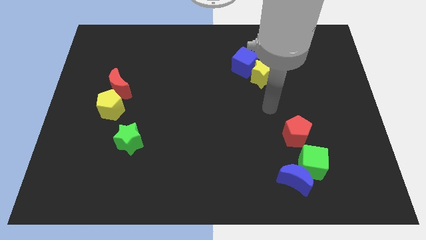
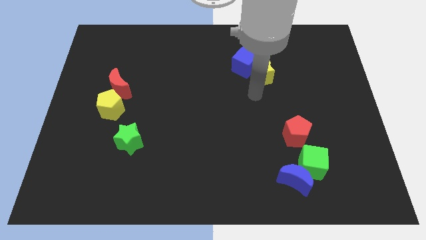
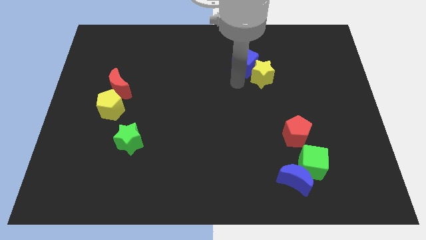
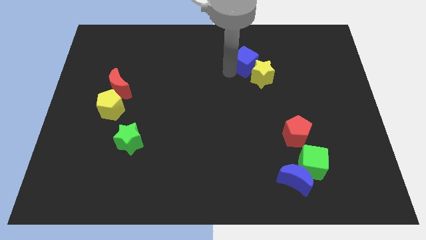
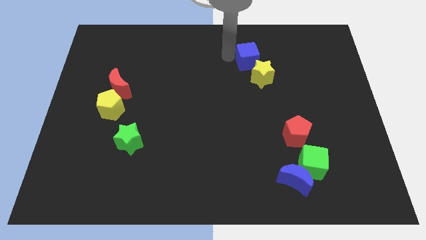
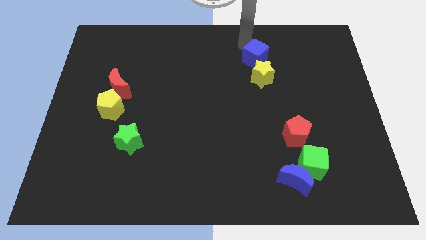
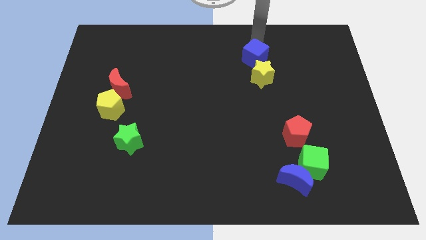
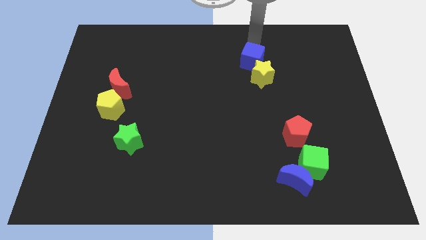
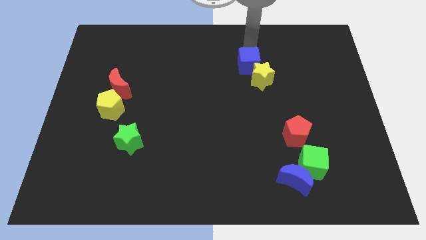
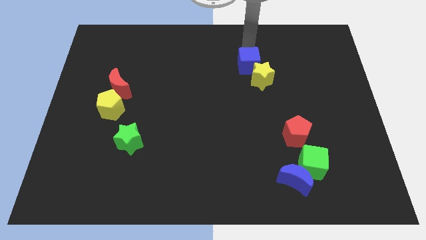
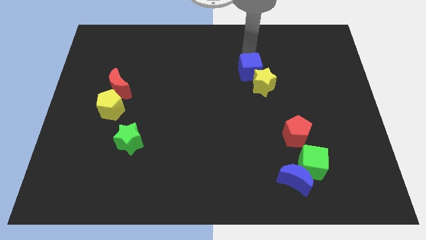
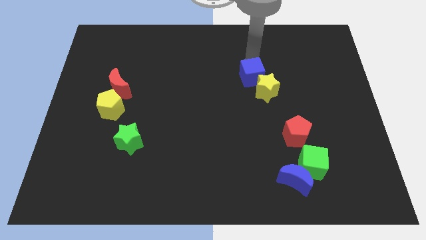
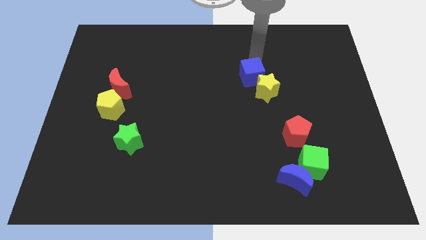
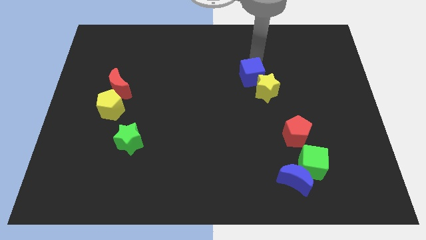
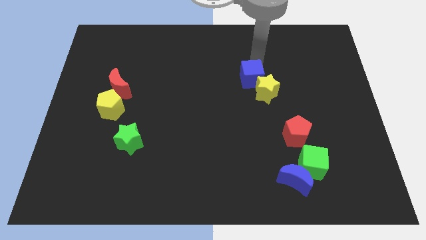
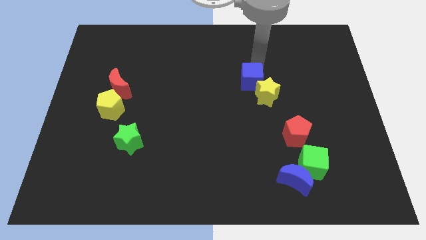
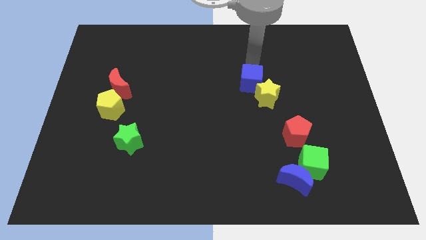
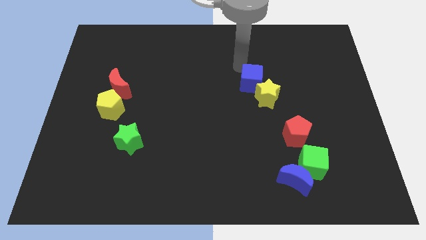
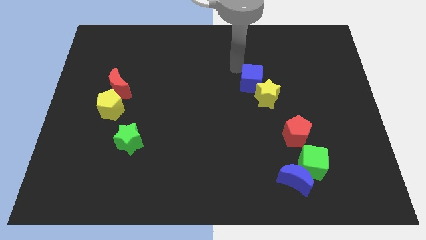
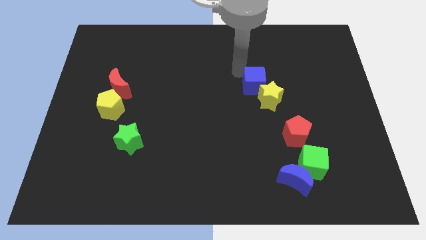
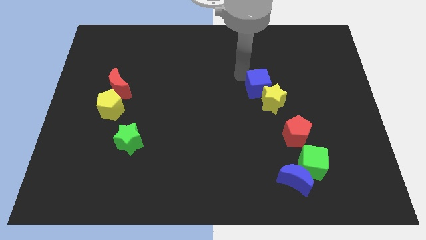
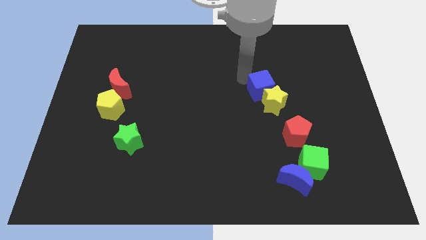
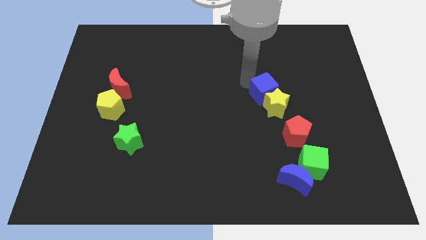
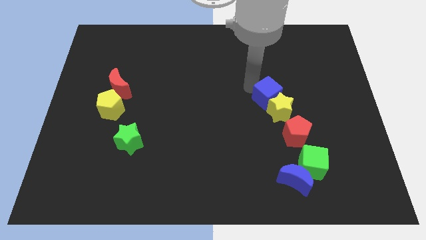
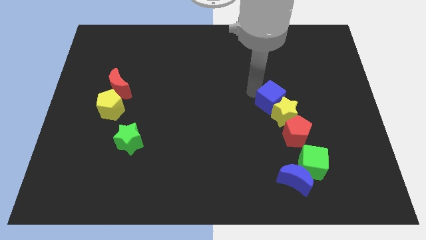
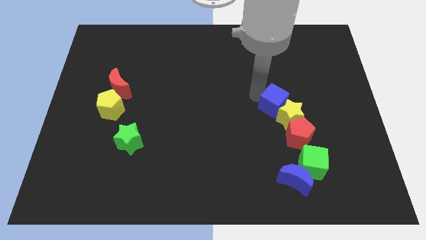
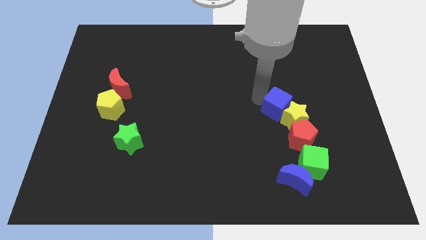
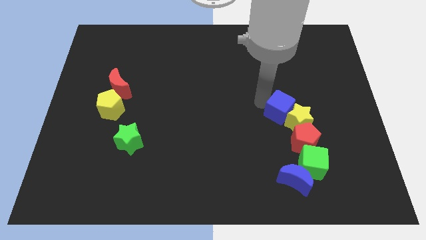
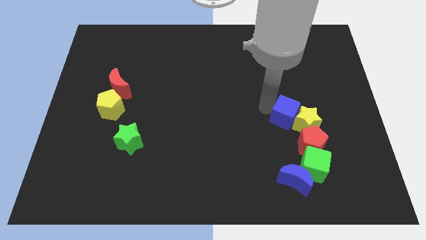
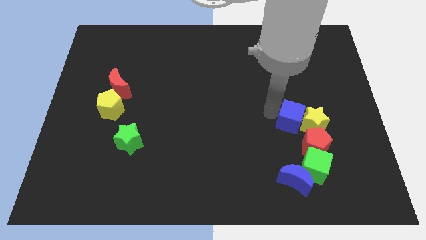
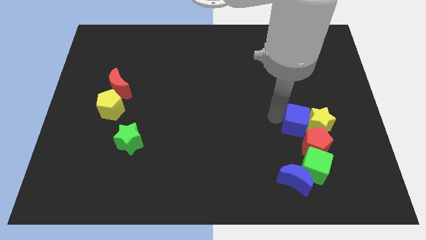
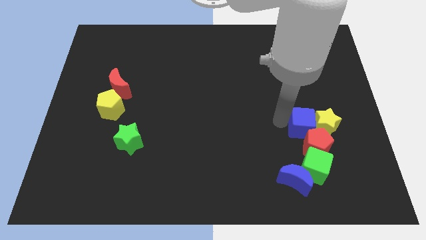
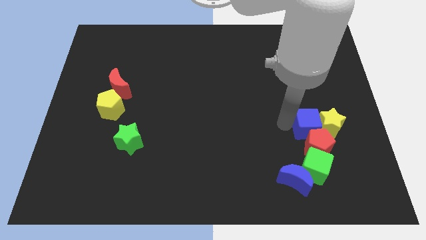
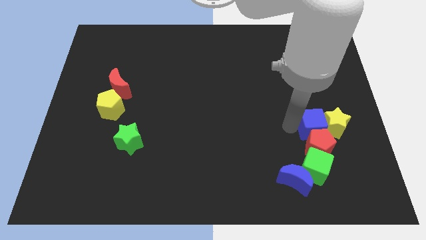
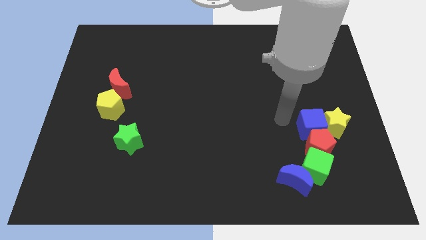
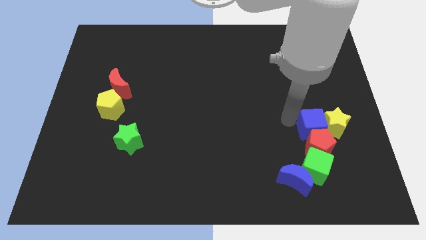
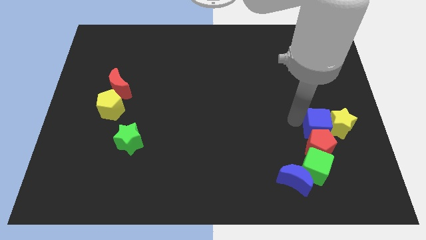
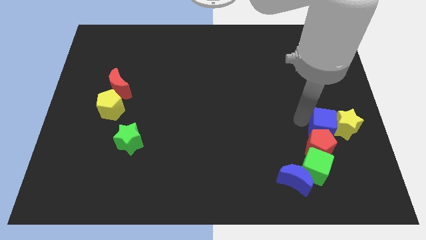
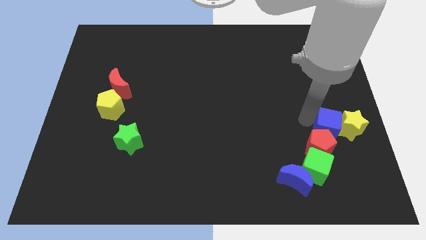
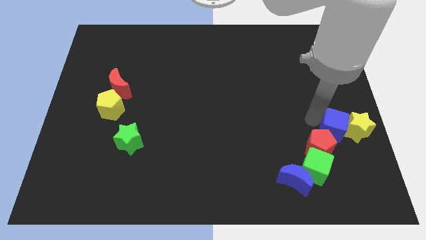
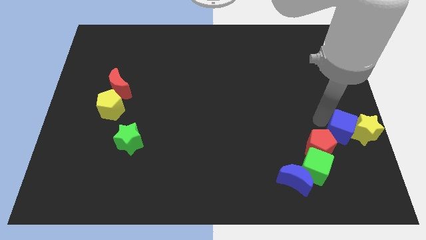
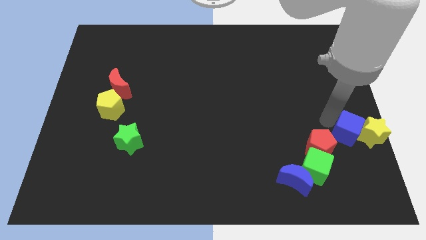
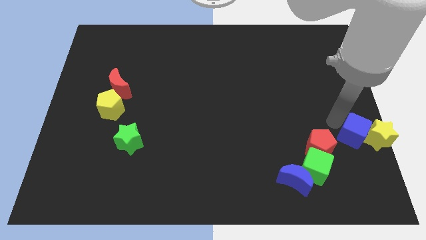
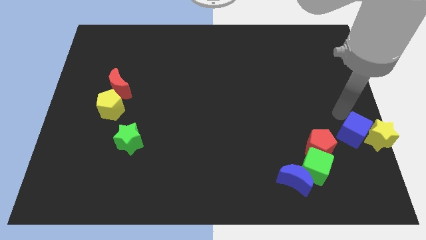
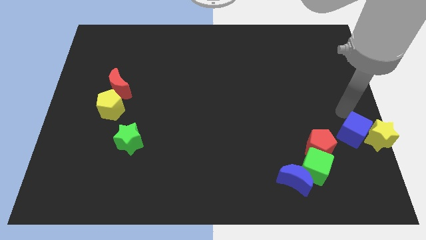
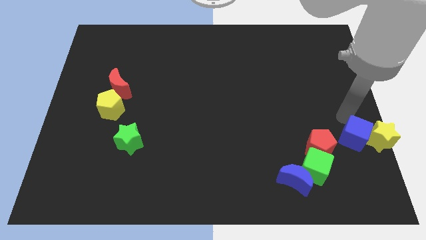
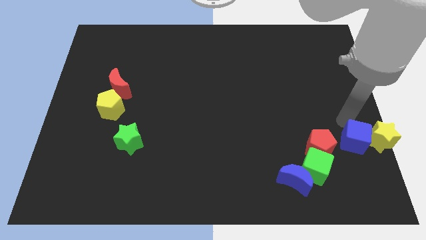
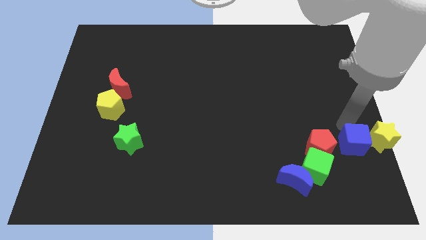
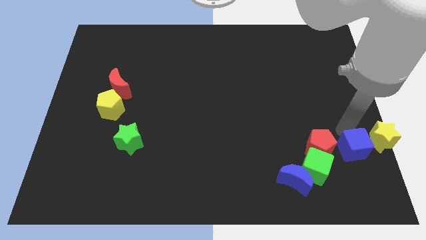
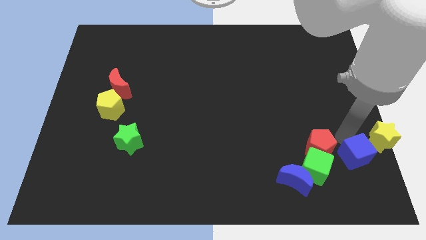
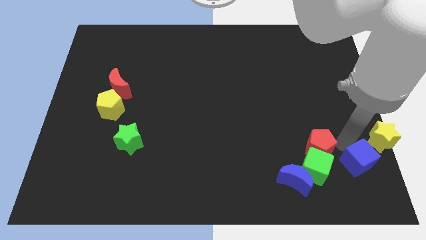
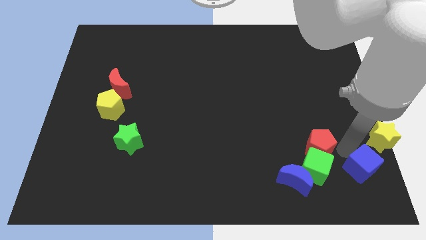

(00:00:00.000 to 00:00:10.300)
put the blue cube to the bottom right
